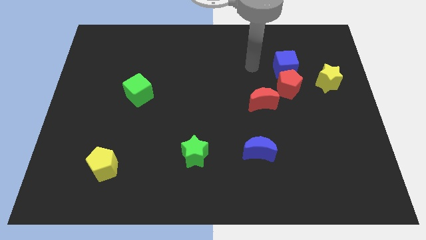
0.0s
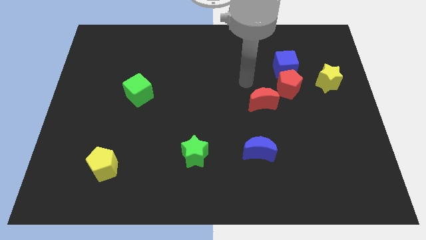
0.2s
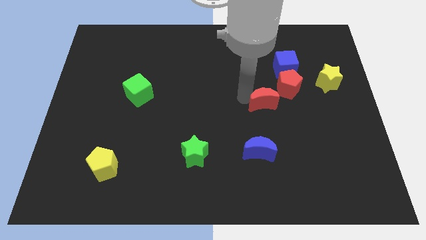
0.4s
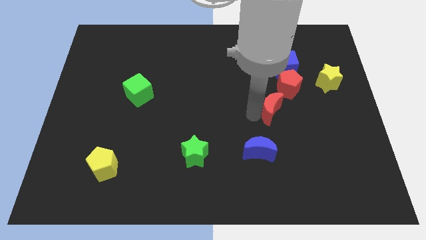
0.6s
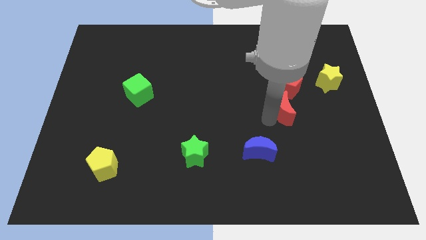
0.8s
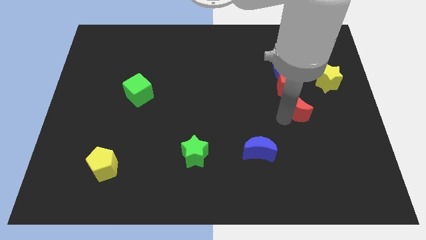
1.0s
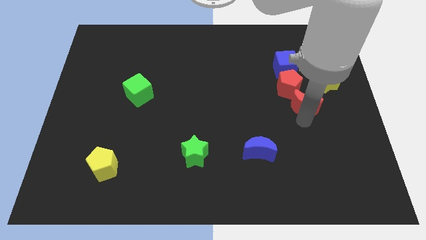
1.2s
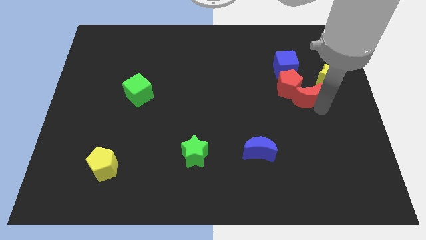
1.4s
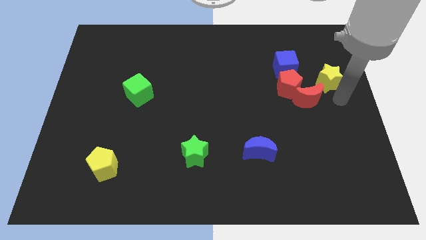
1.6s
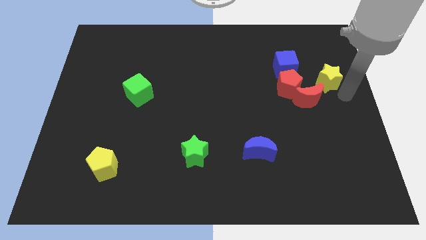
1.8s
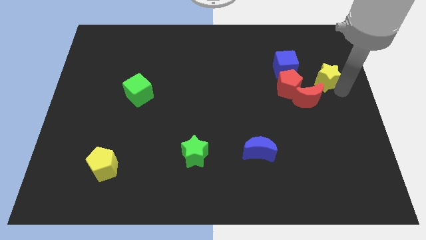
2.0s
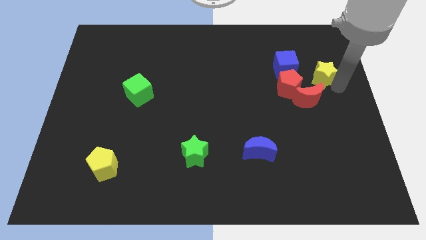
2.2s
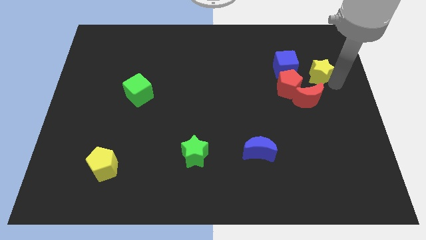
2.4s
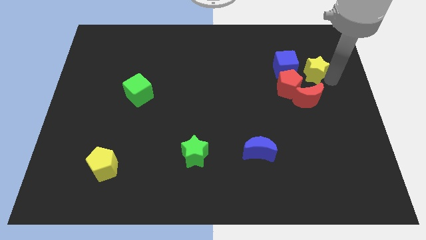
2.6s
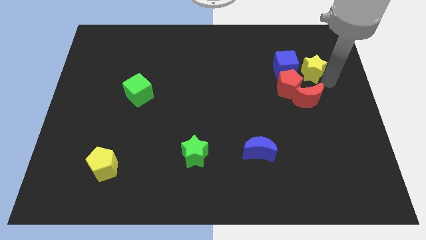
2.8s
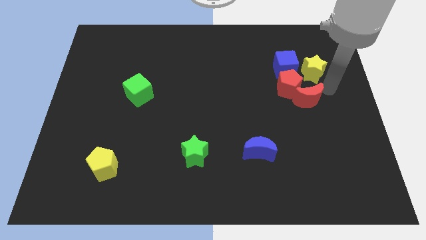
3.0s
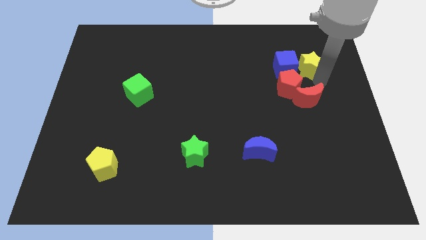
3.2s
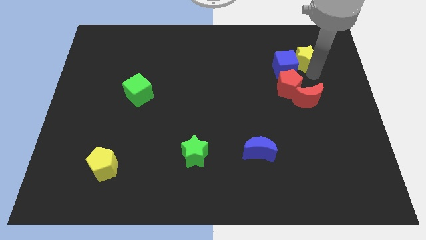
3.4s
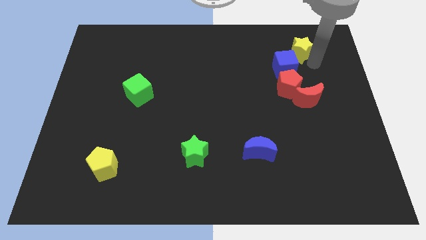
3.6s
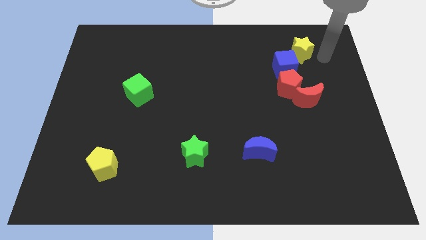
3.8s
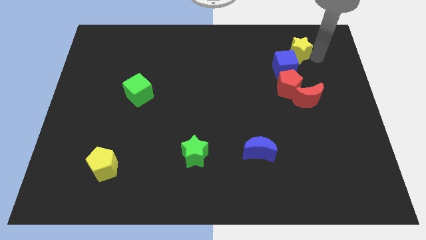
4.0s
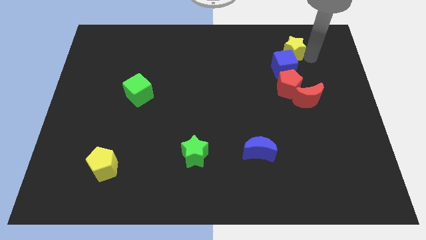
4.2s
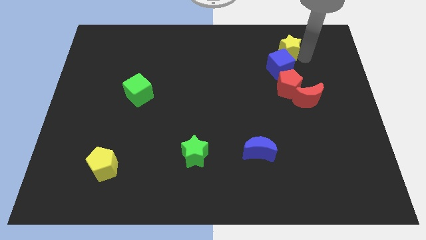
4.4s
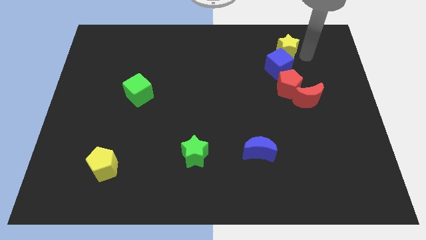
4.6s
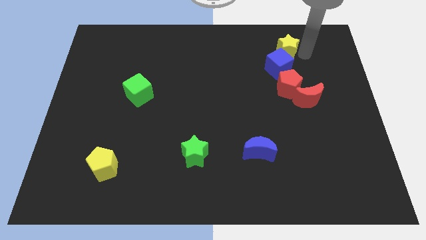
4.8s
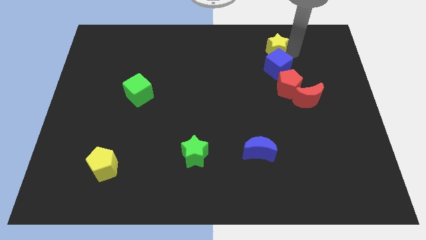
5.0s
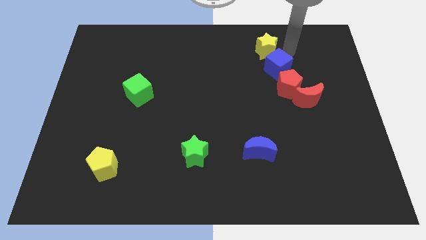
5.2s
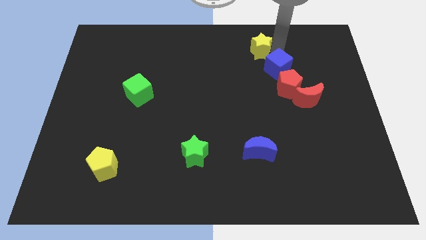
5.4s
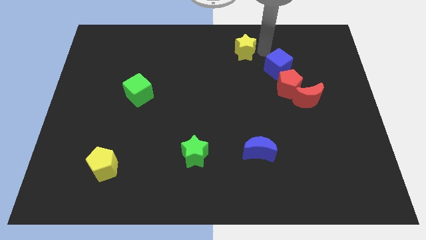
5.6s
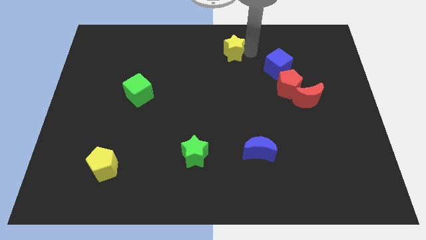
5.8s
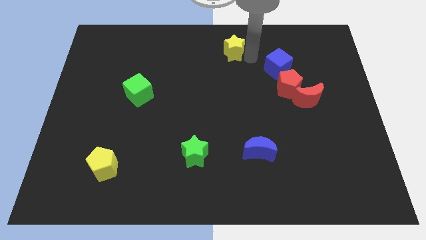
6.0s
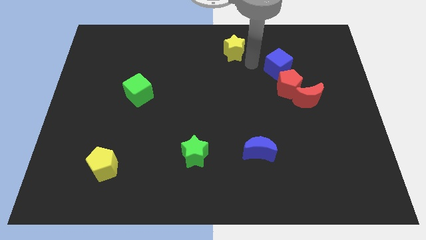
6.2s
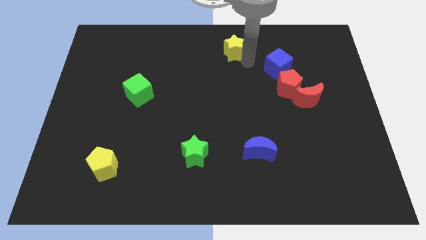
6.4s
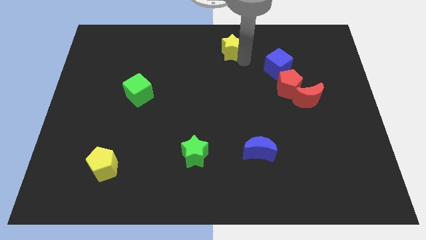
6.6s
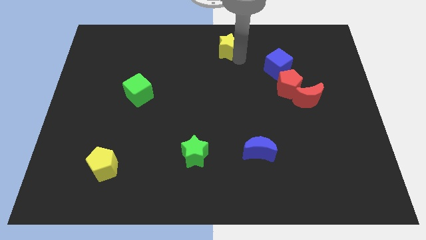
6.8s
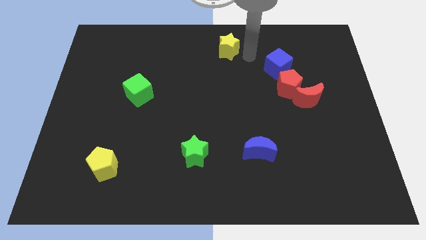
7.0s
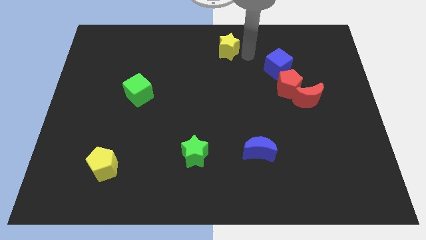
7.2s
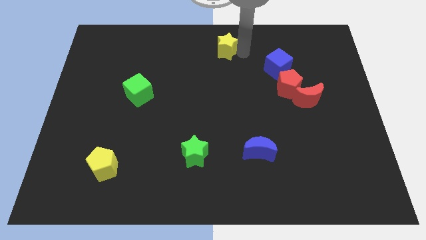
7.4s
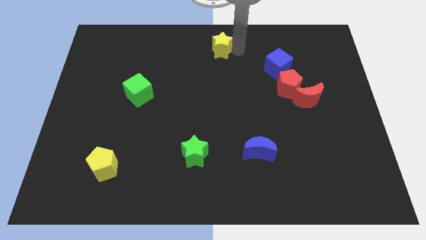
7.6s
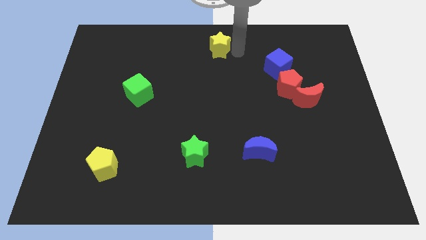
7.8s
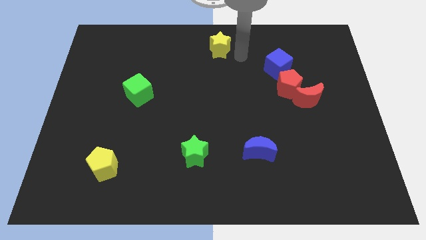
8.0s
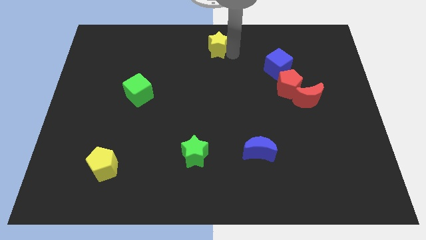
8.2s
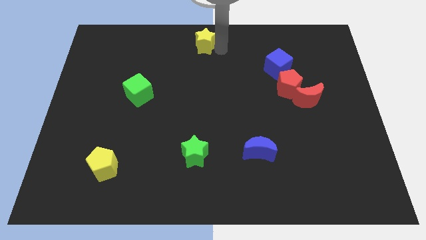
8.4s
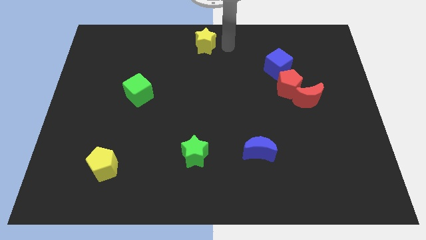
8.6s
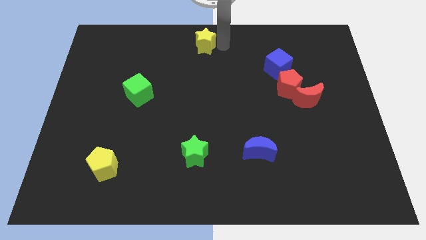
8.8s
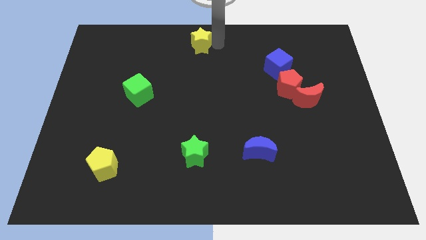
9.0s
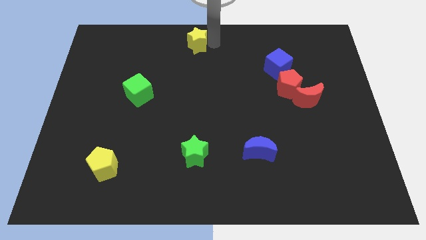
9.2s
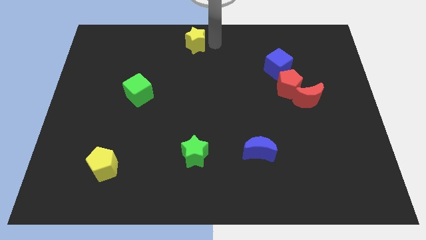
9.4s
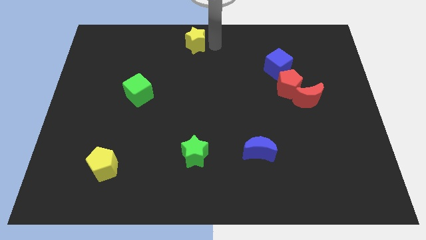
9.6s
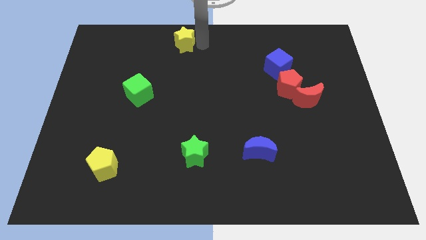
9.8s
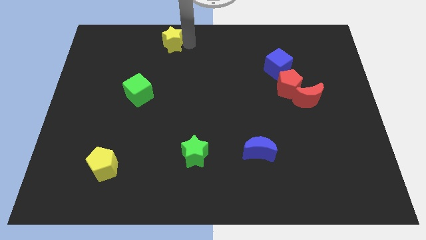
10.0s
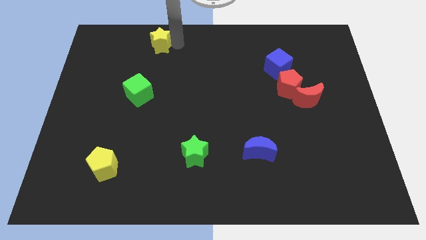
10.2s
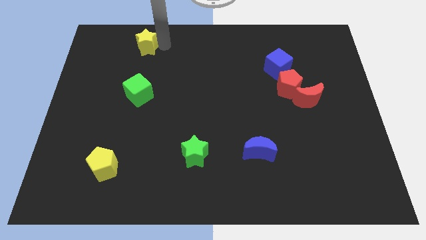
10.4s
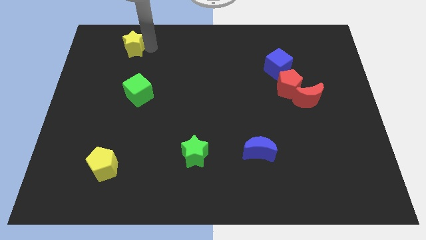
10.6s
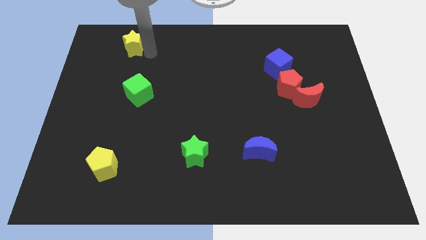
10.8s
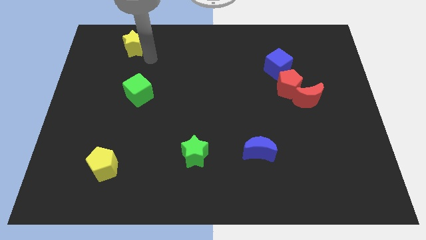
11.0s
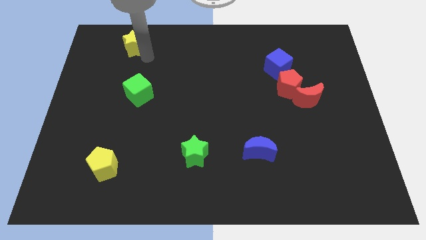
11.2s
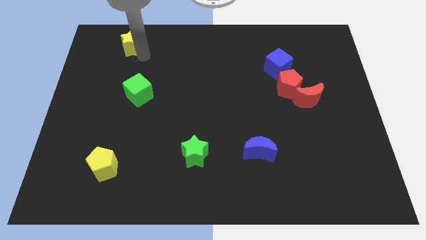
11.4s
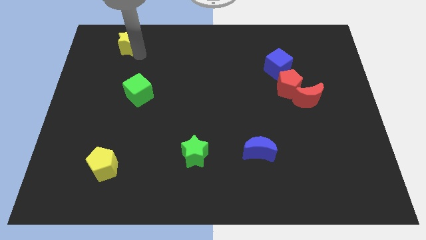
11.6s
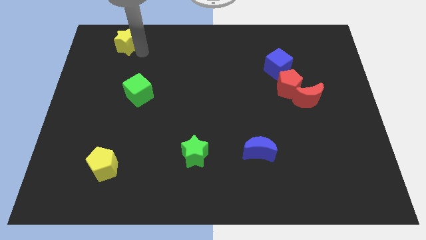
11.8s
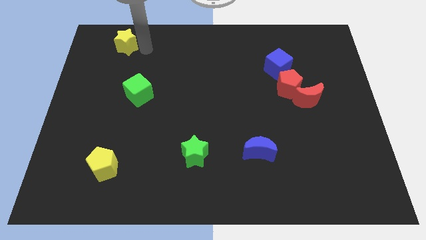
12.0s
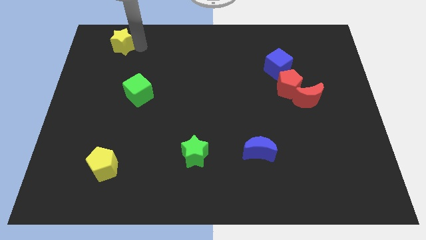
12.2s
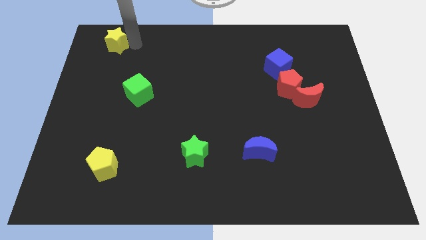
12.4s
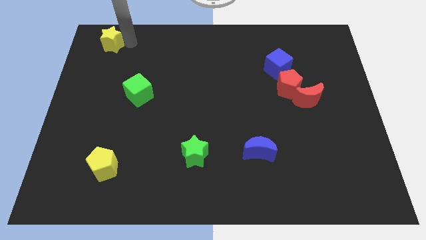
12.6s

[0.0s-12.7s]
push the yellow star to the top left

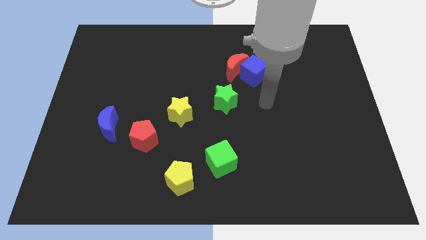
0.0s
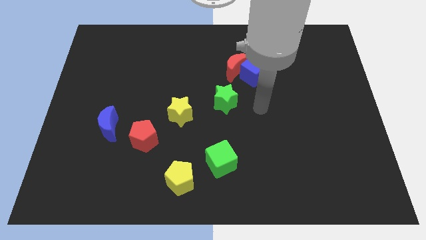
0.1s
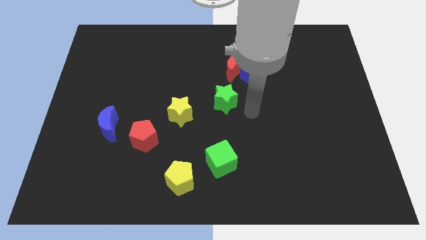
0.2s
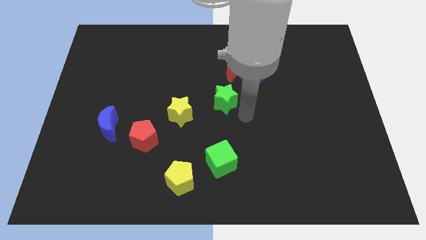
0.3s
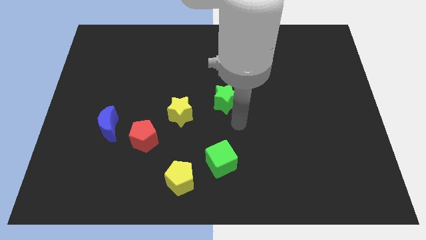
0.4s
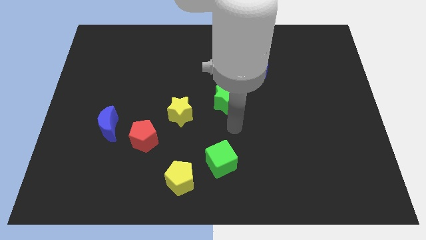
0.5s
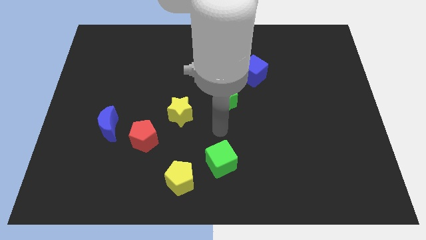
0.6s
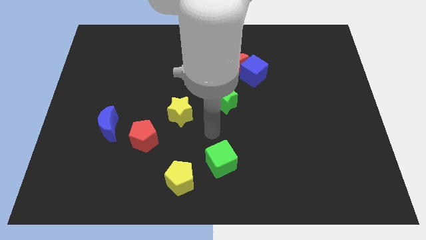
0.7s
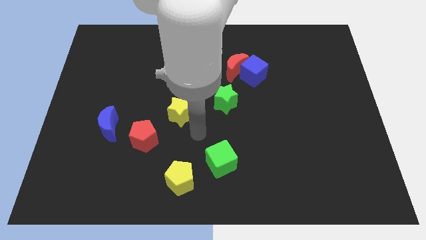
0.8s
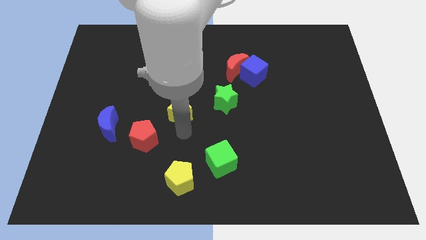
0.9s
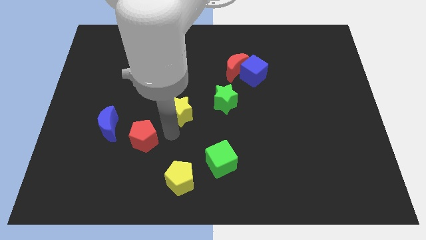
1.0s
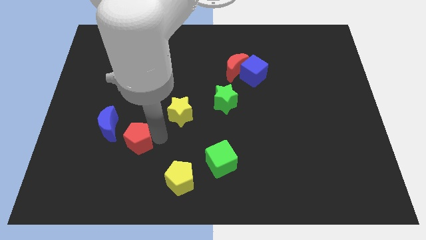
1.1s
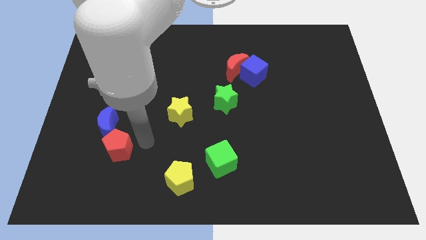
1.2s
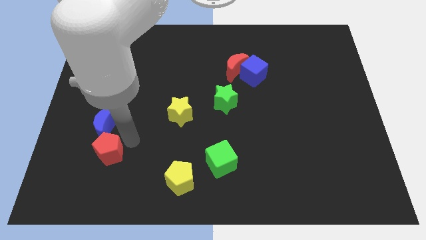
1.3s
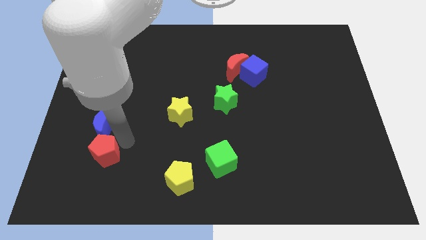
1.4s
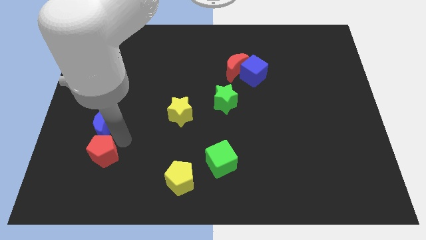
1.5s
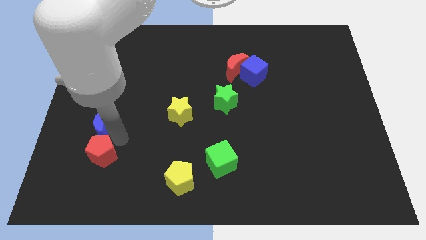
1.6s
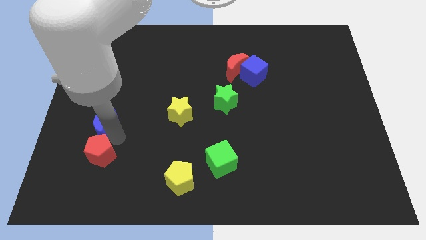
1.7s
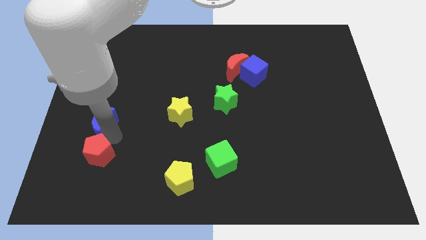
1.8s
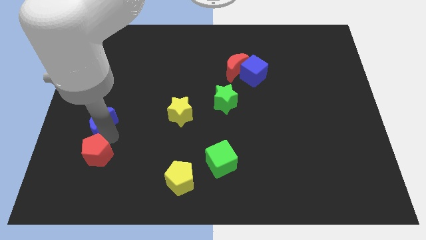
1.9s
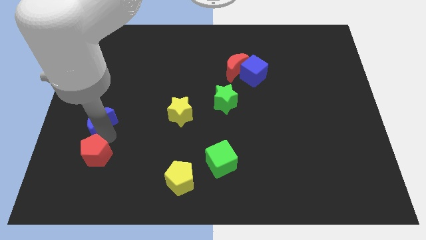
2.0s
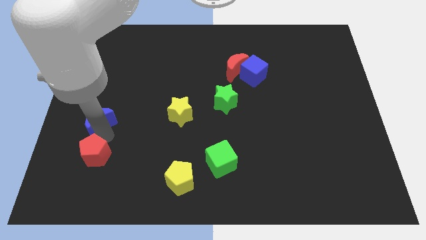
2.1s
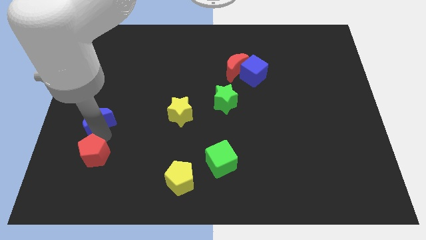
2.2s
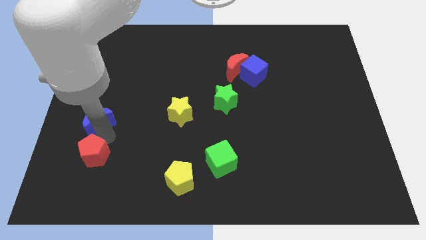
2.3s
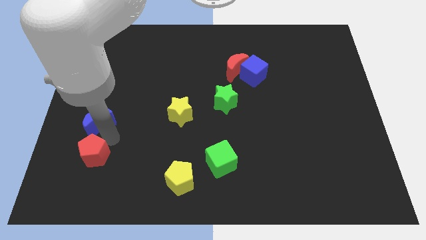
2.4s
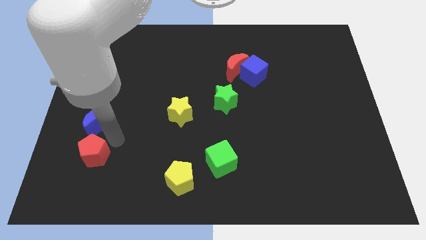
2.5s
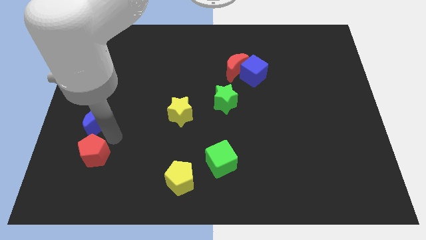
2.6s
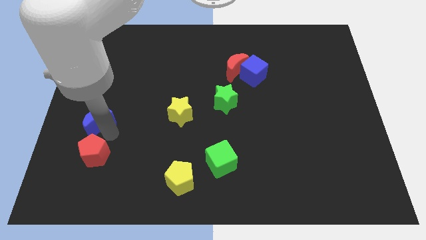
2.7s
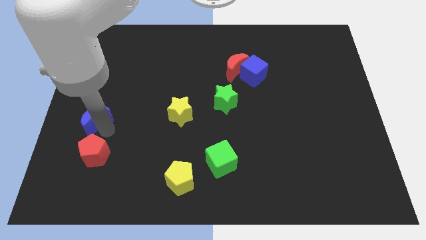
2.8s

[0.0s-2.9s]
push the blue moon to the center left
